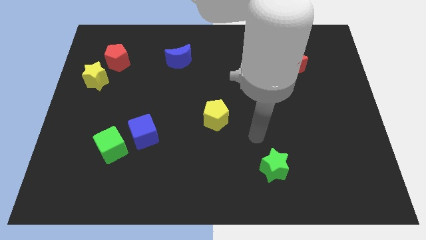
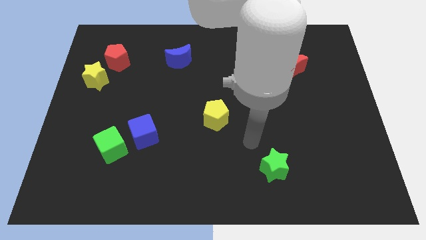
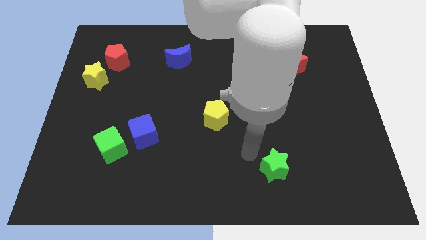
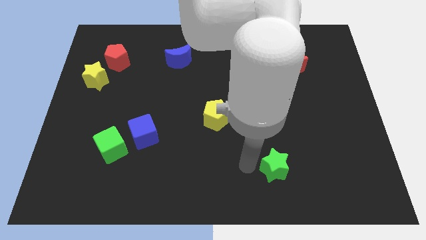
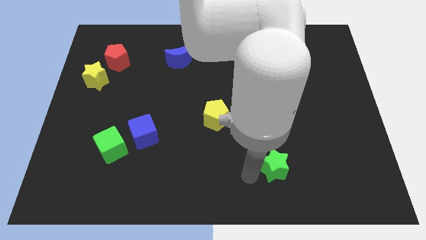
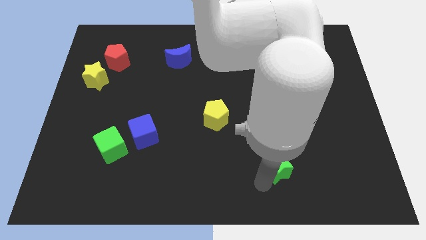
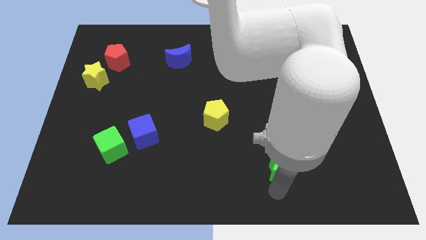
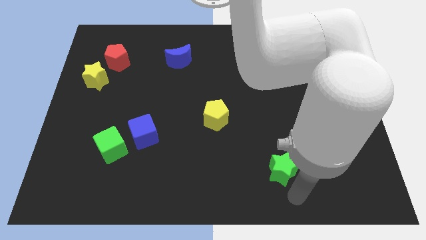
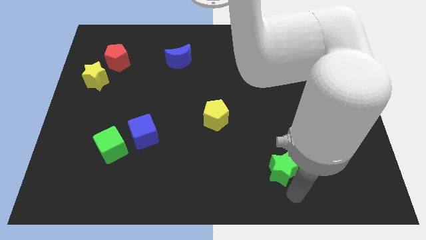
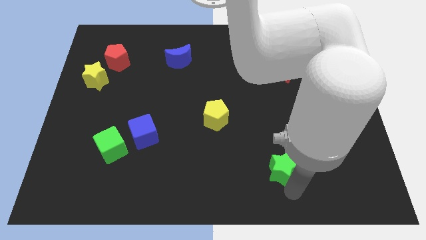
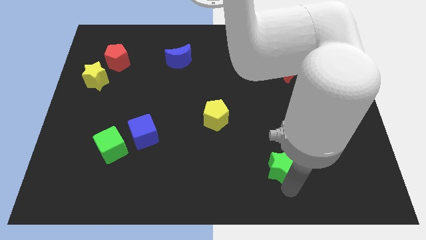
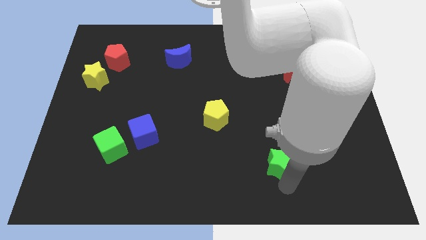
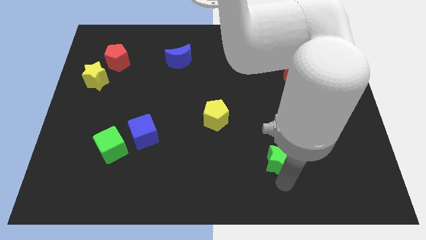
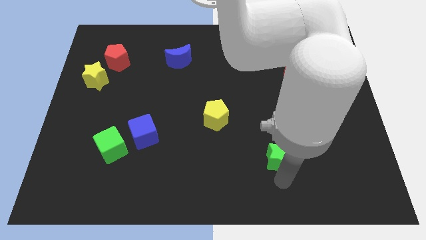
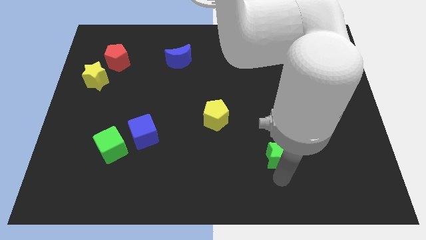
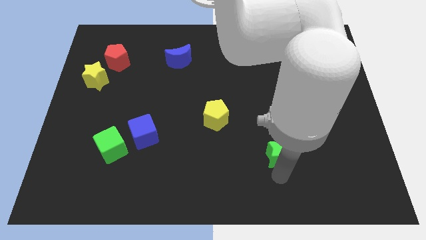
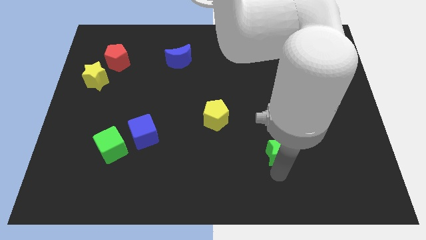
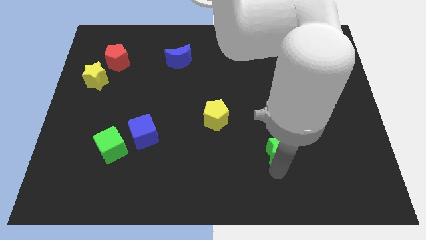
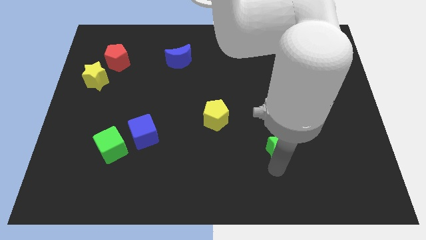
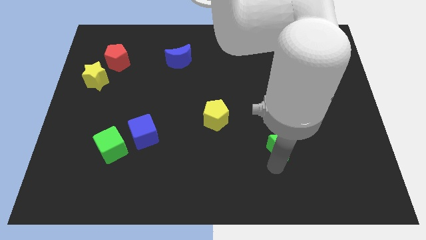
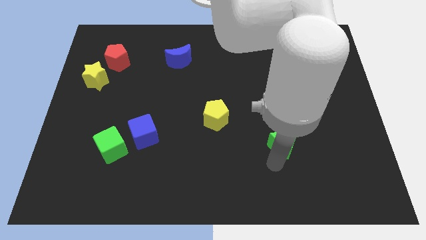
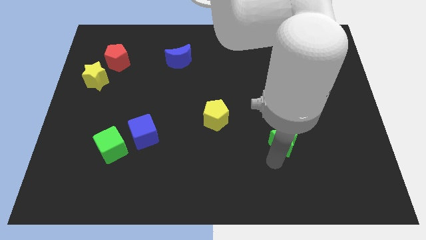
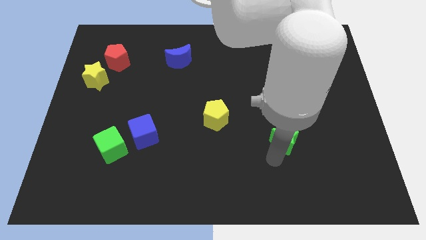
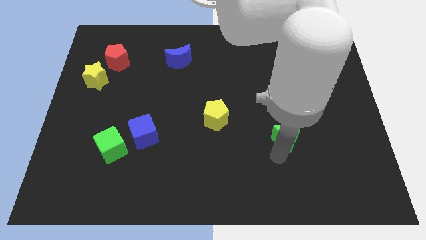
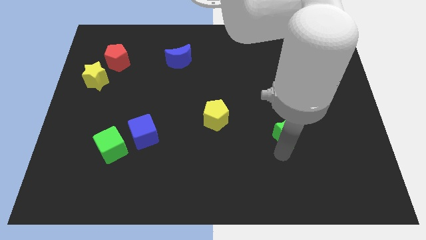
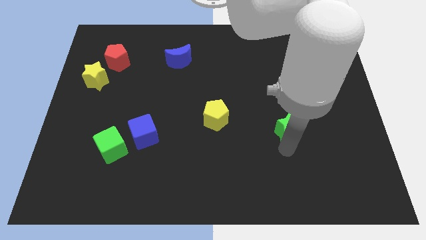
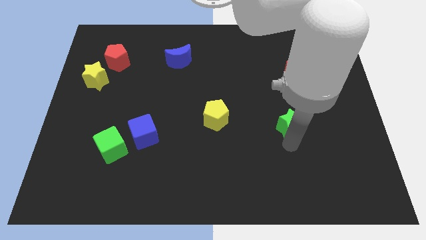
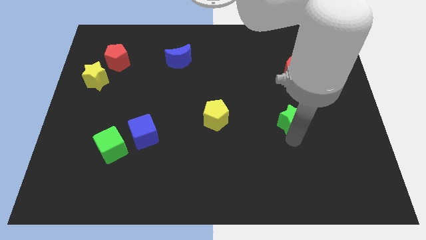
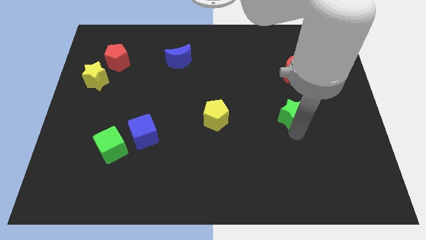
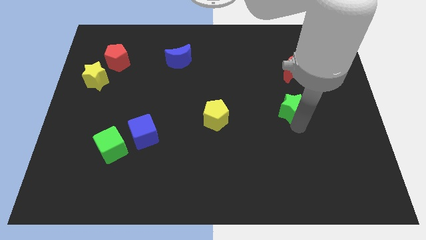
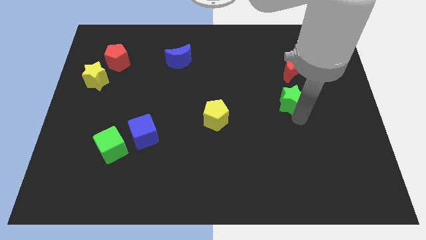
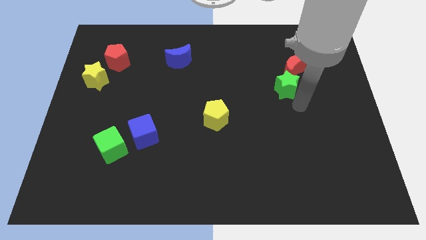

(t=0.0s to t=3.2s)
slide the green star up

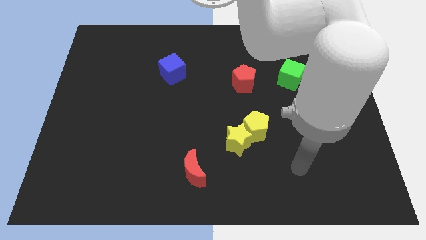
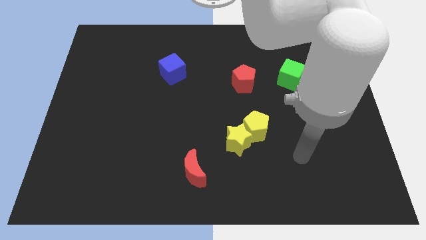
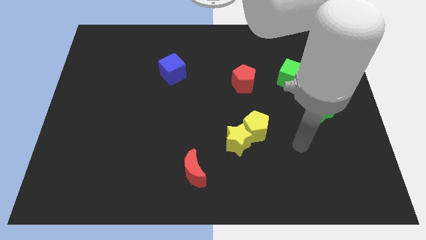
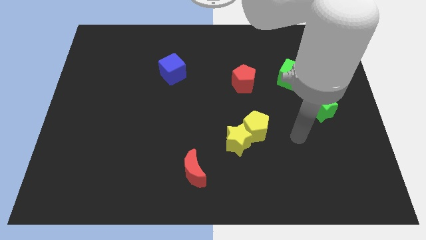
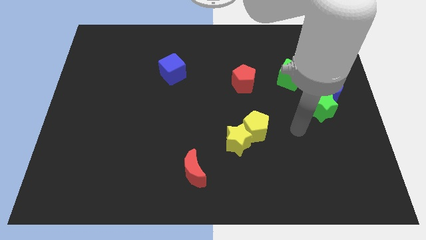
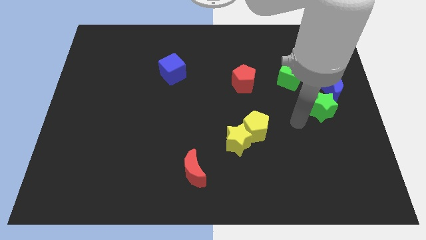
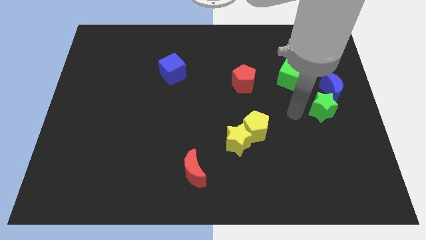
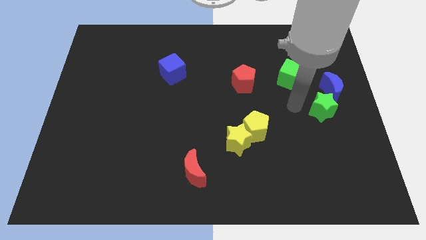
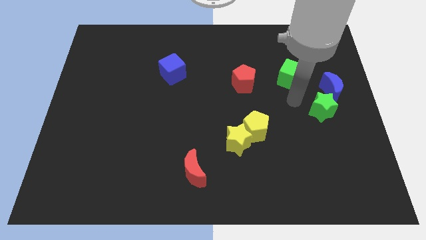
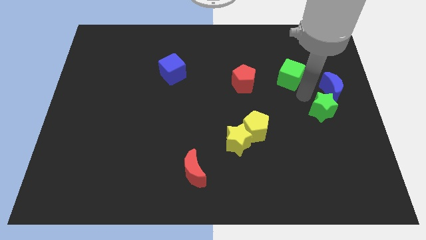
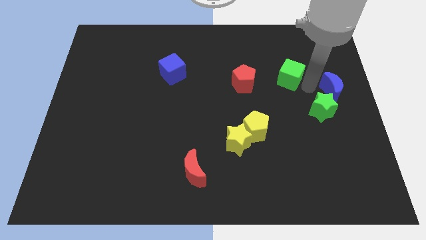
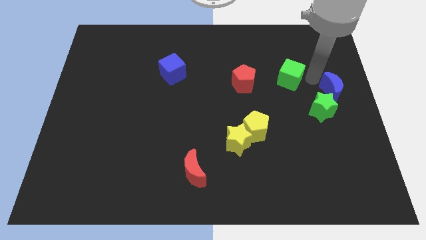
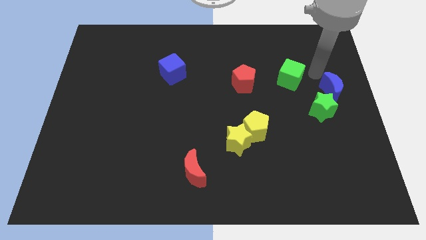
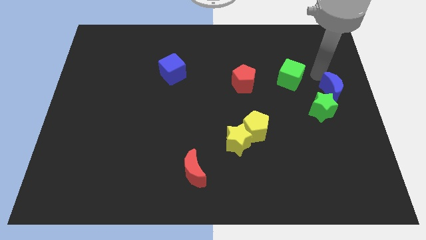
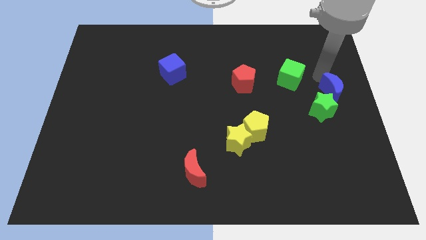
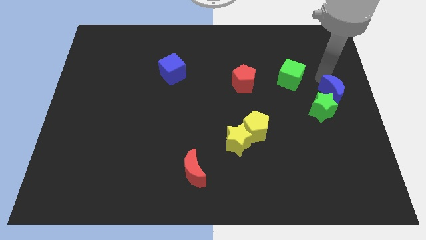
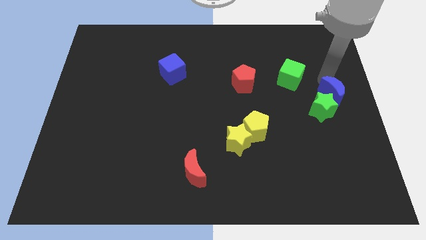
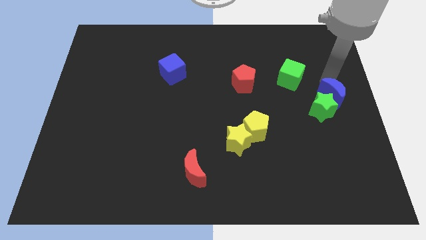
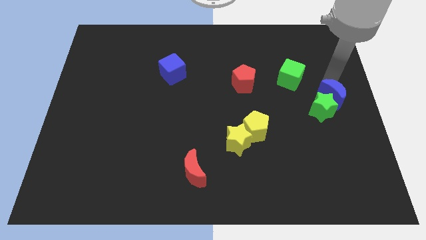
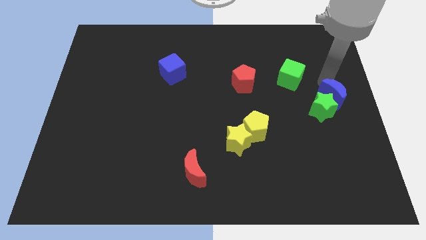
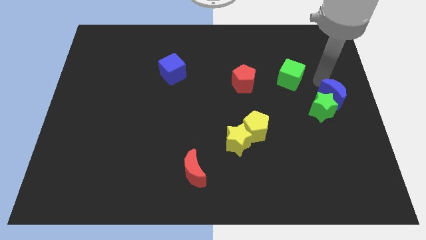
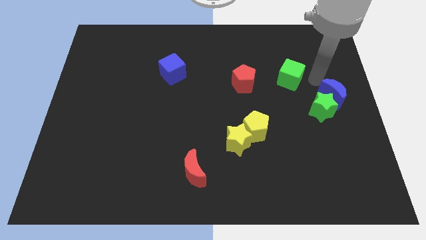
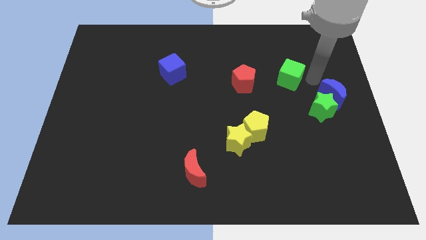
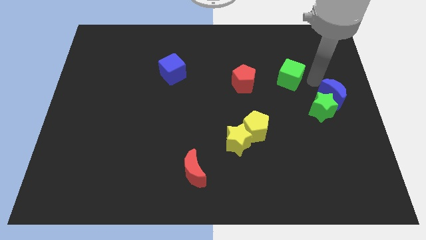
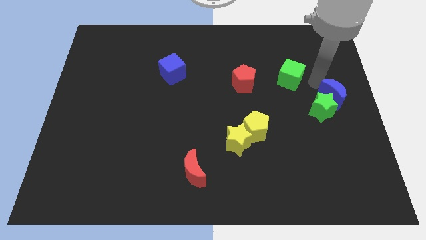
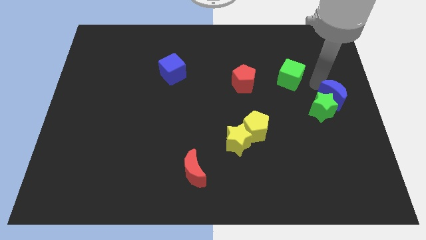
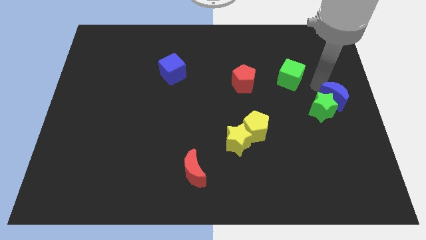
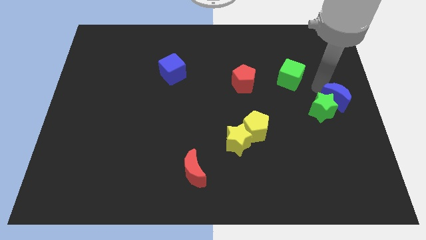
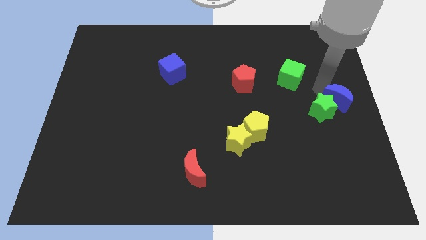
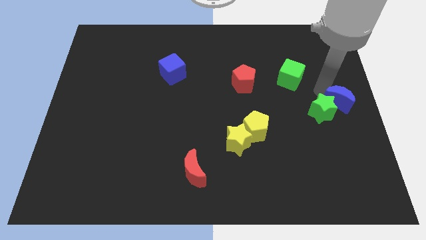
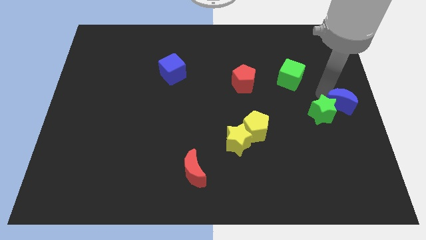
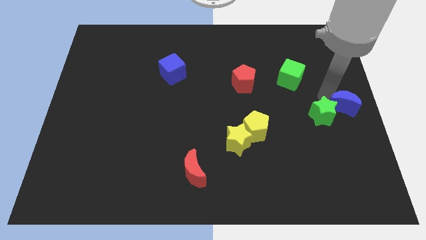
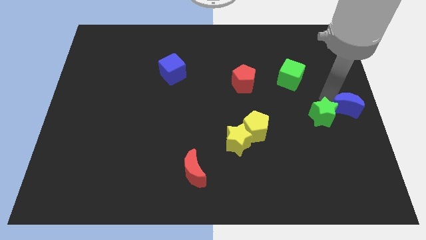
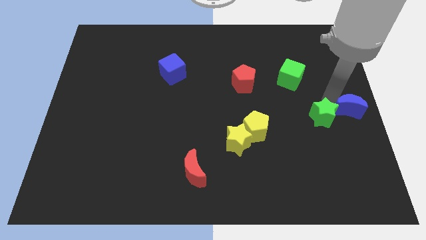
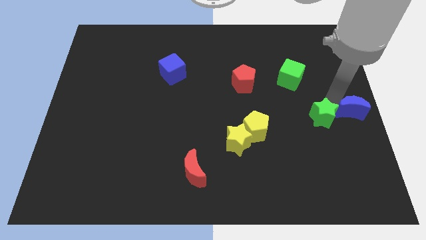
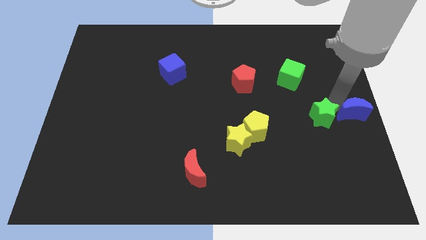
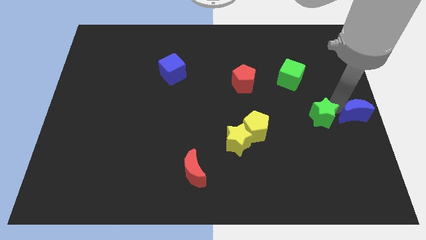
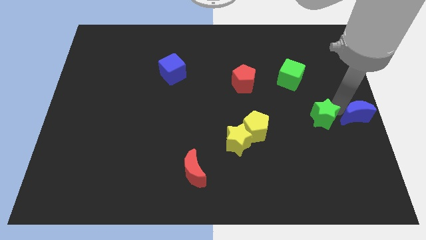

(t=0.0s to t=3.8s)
slightly slide the blue moon downwards

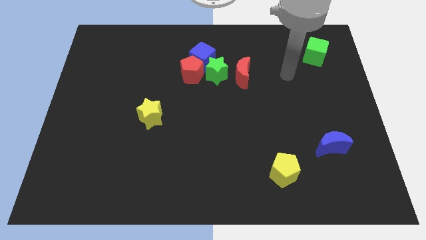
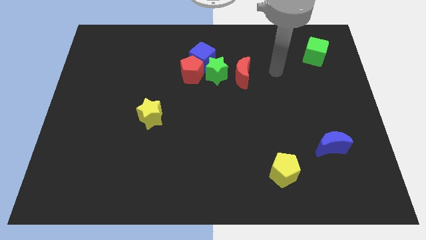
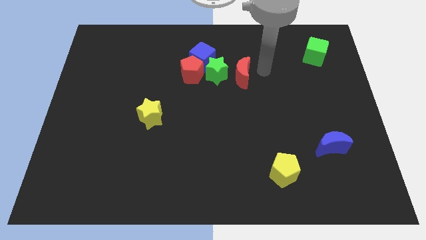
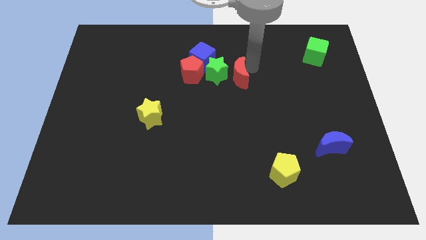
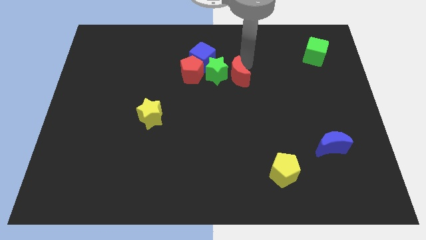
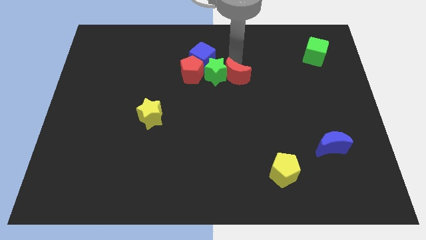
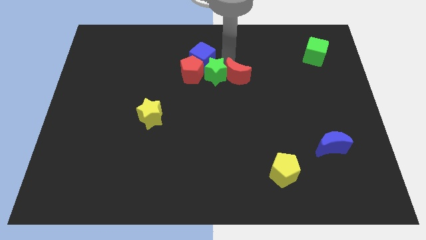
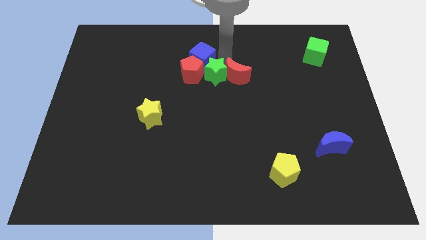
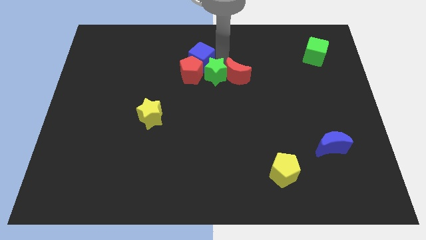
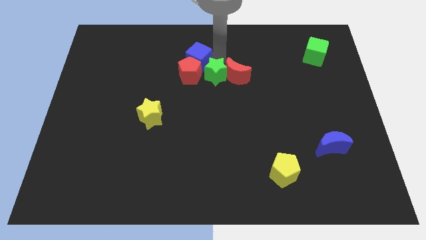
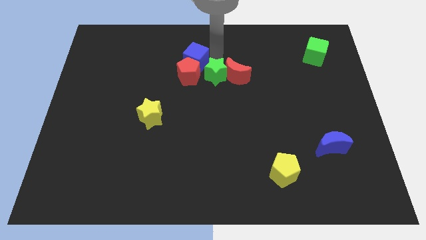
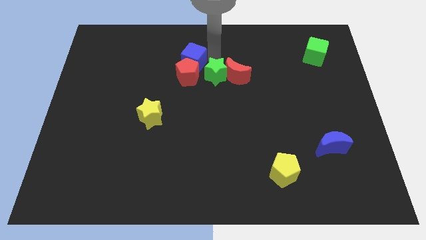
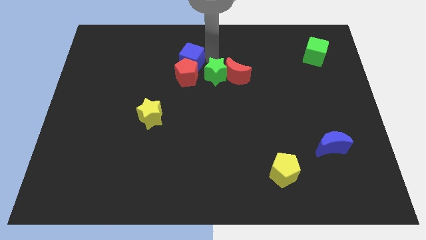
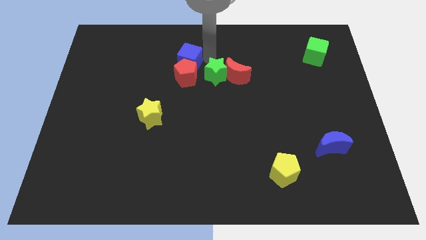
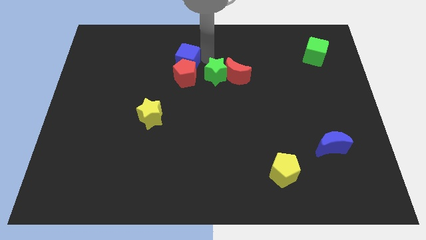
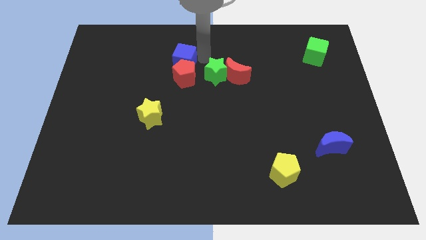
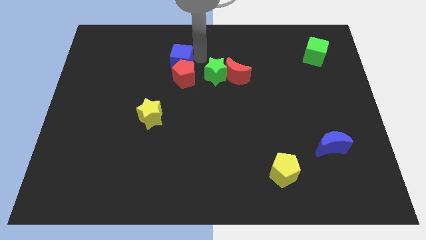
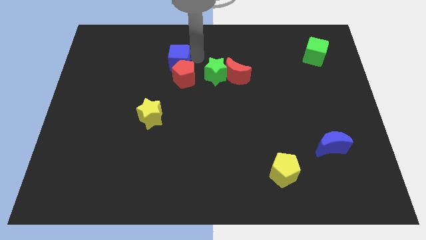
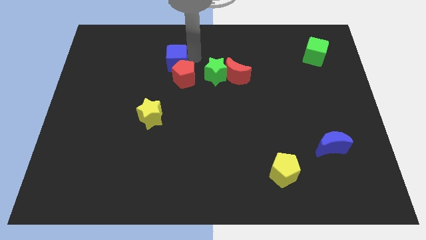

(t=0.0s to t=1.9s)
slightly push the blue cube to the left
